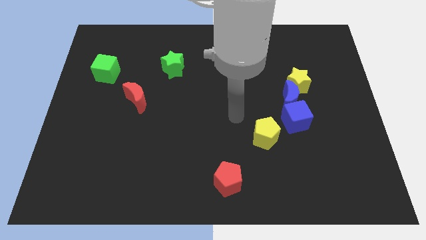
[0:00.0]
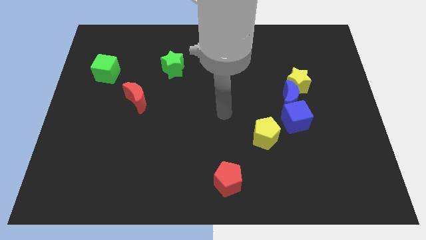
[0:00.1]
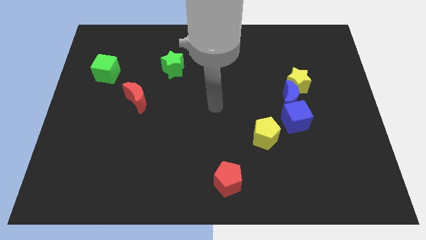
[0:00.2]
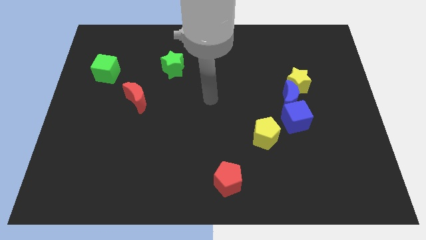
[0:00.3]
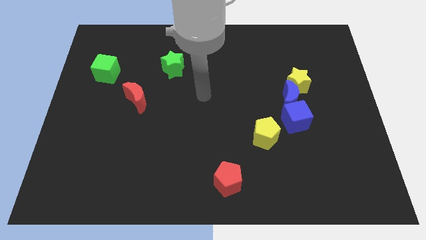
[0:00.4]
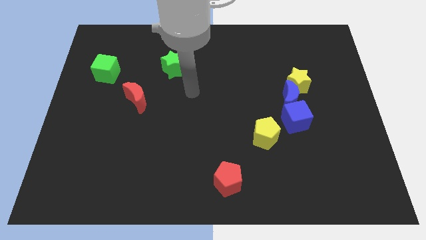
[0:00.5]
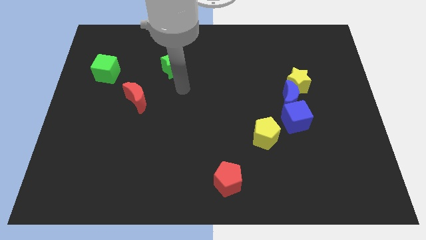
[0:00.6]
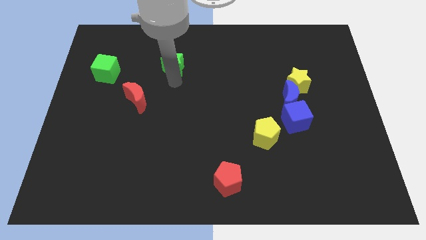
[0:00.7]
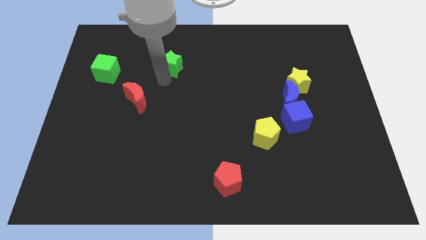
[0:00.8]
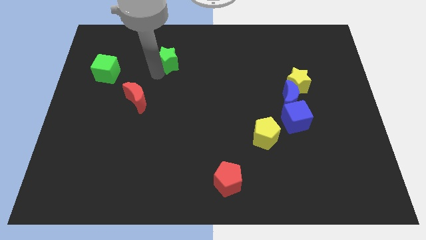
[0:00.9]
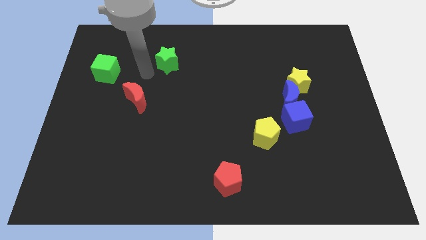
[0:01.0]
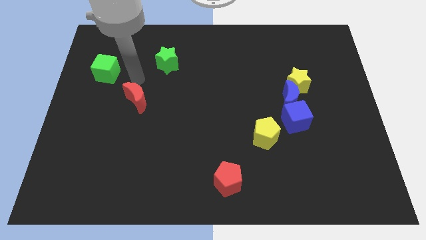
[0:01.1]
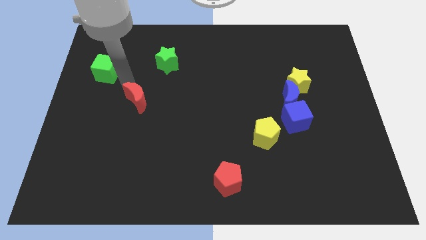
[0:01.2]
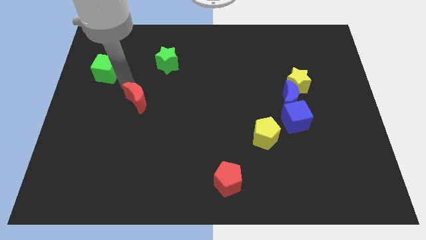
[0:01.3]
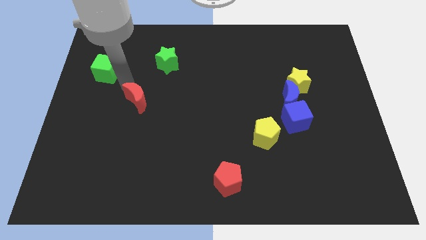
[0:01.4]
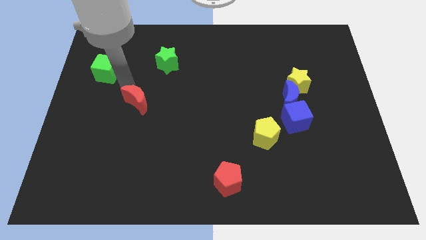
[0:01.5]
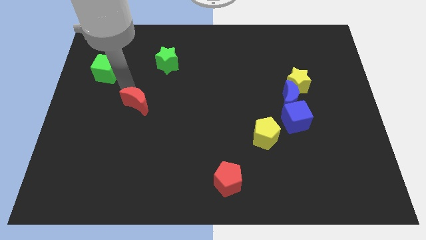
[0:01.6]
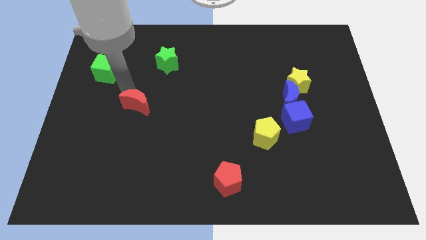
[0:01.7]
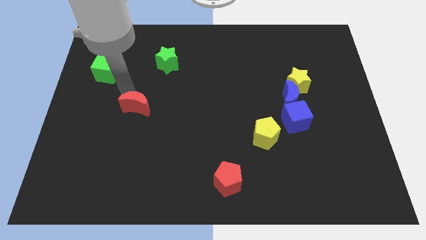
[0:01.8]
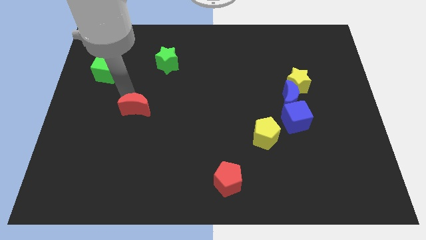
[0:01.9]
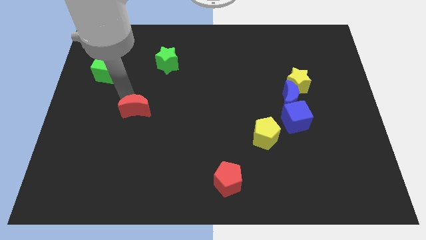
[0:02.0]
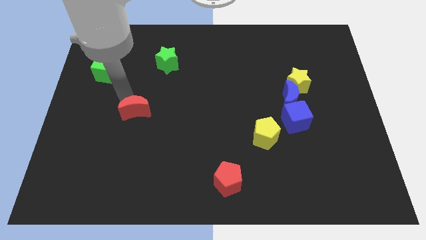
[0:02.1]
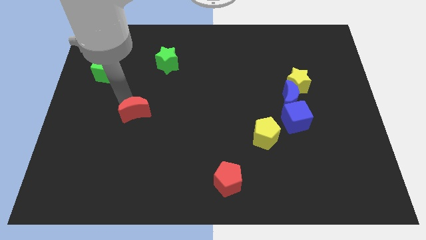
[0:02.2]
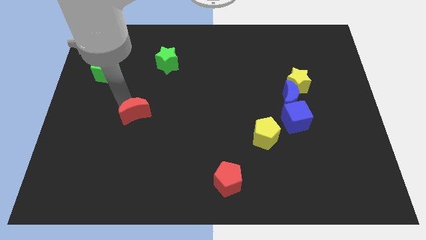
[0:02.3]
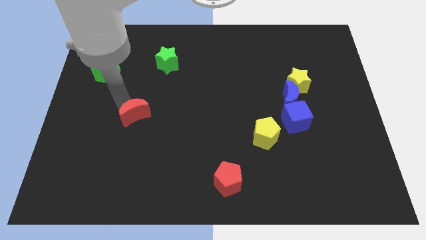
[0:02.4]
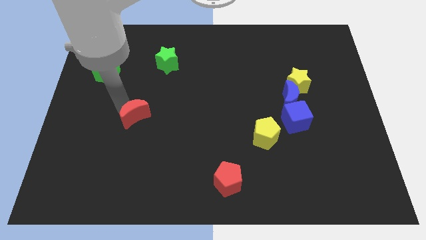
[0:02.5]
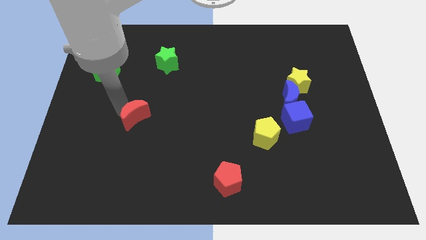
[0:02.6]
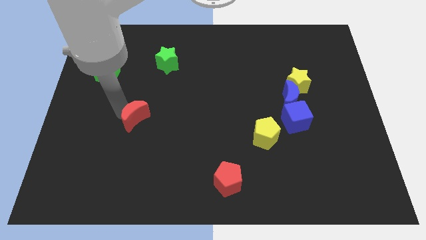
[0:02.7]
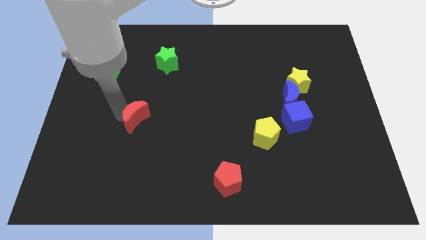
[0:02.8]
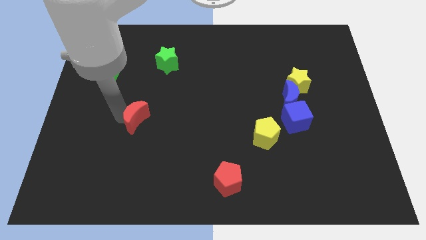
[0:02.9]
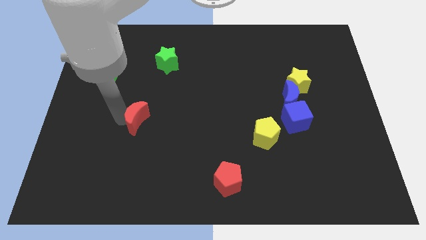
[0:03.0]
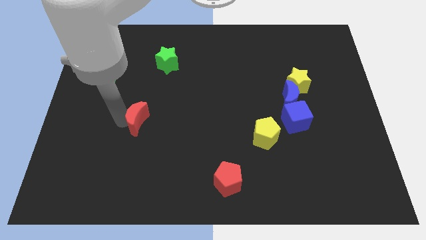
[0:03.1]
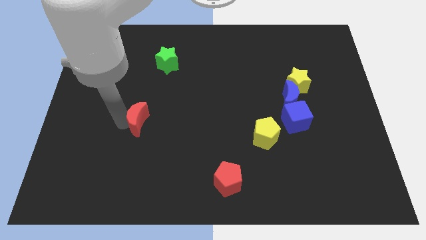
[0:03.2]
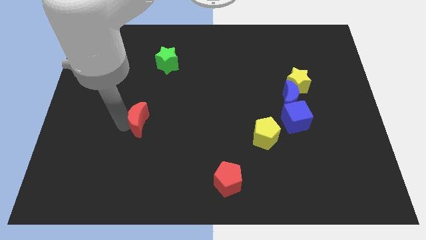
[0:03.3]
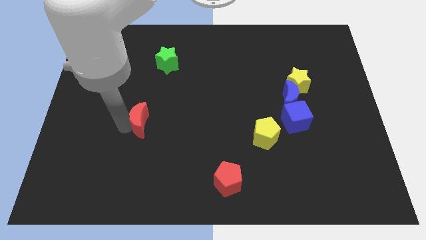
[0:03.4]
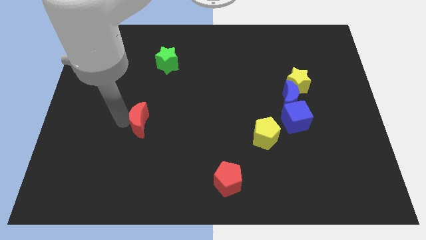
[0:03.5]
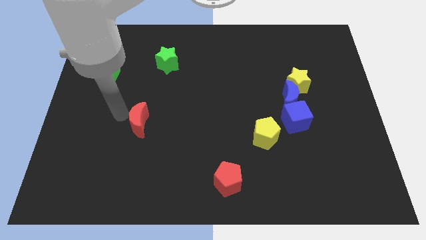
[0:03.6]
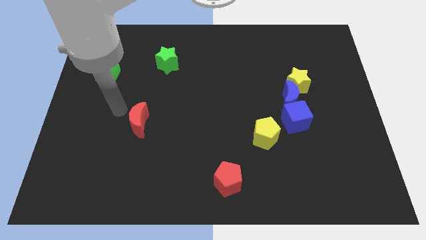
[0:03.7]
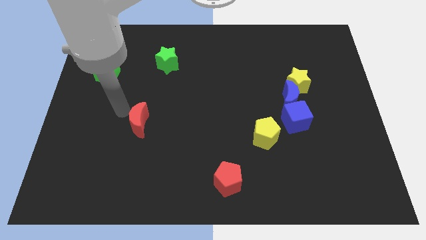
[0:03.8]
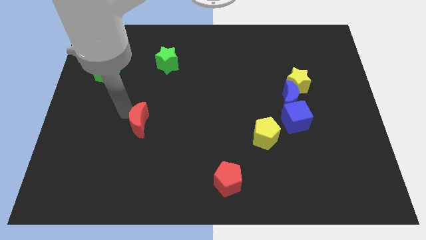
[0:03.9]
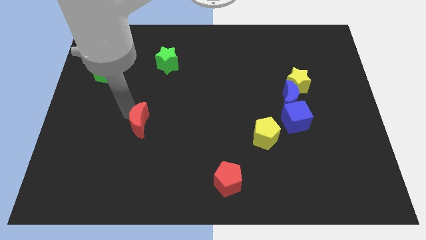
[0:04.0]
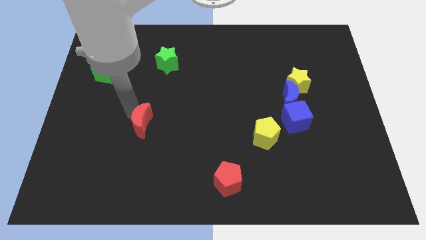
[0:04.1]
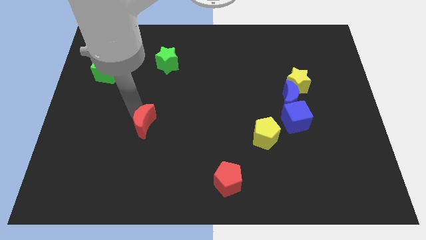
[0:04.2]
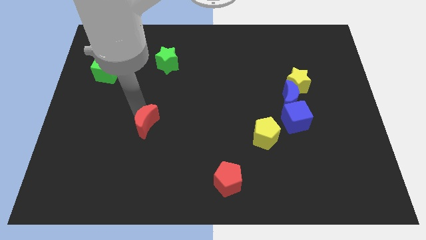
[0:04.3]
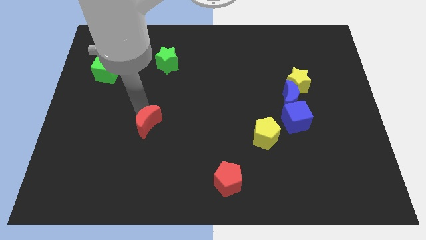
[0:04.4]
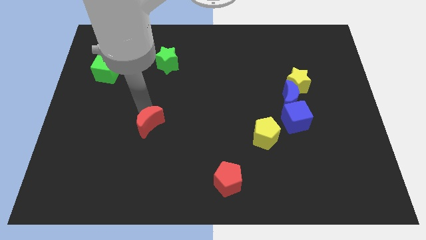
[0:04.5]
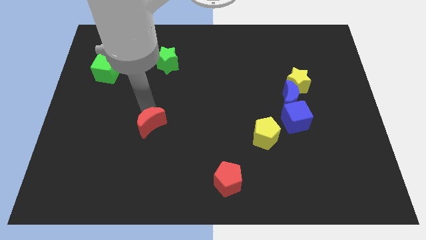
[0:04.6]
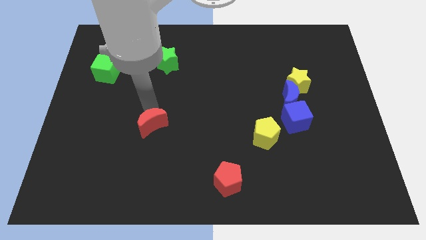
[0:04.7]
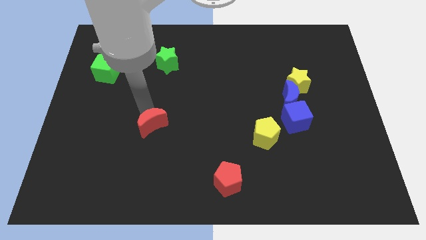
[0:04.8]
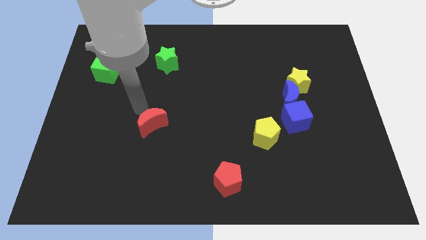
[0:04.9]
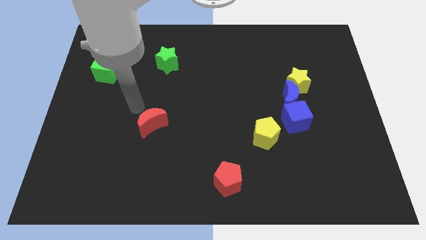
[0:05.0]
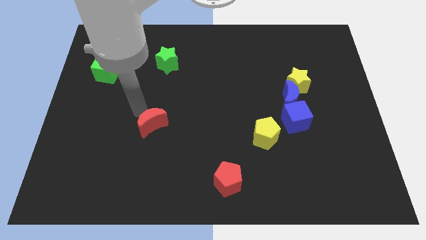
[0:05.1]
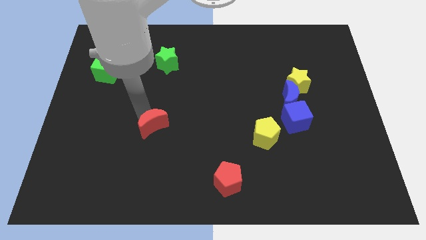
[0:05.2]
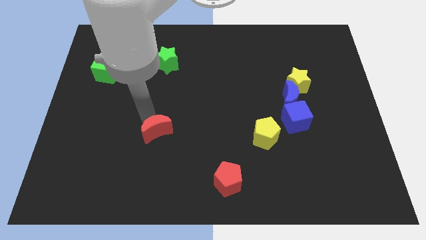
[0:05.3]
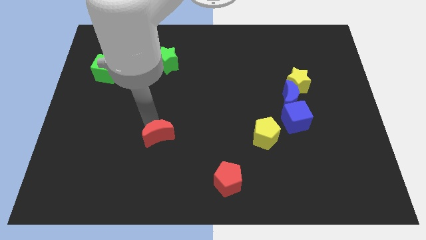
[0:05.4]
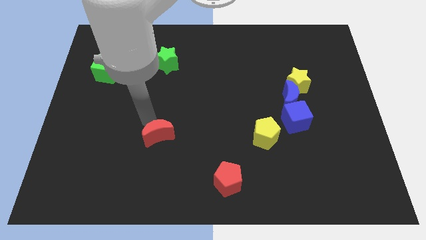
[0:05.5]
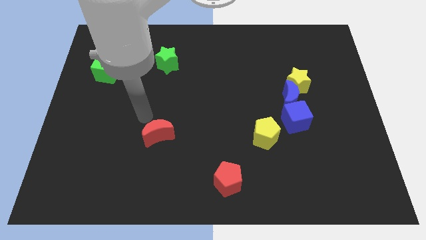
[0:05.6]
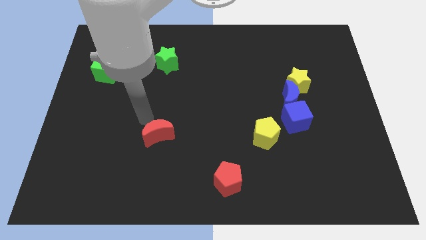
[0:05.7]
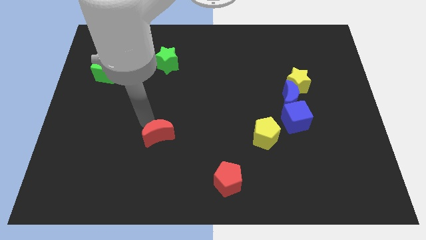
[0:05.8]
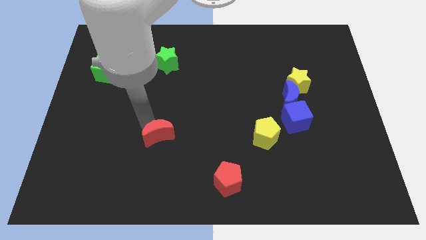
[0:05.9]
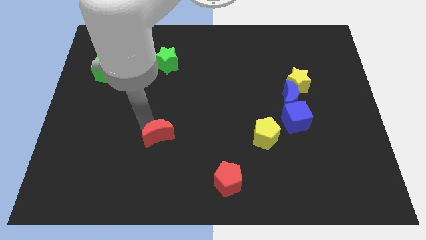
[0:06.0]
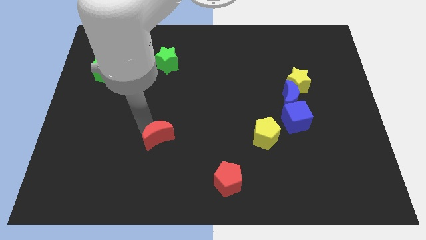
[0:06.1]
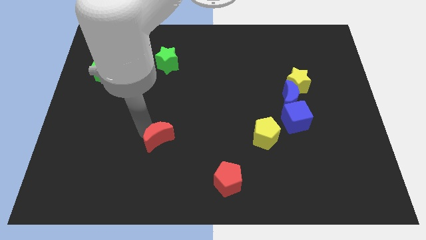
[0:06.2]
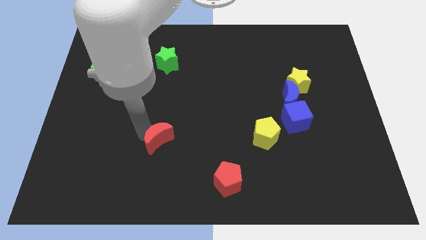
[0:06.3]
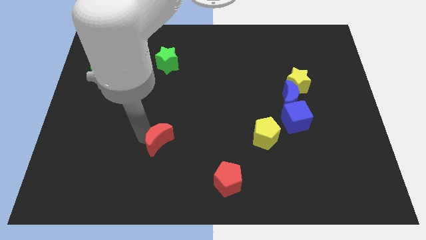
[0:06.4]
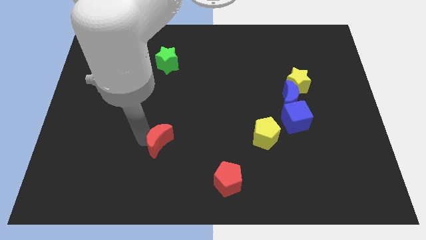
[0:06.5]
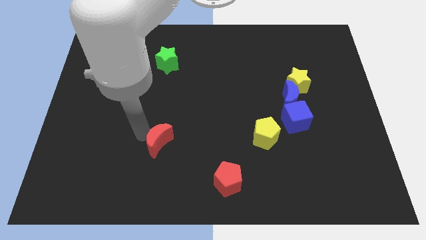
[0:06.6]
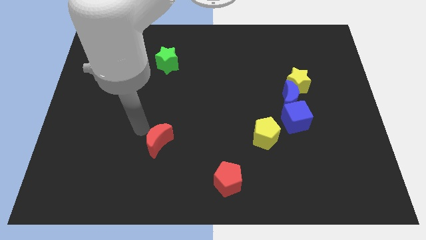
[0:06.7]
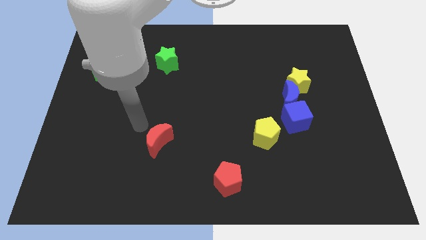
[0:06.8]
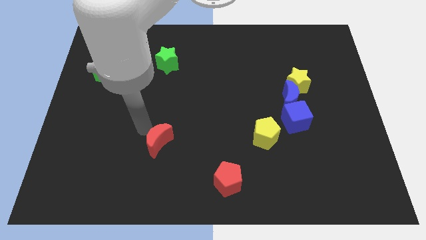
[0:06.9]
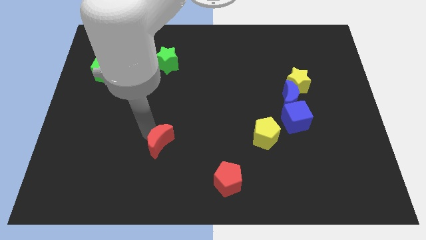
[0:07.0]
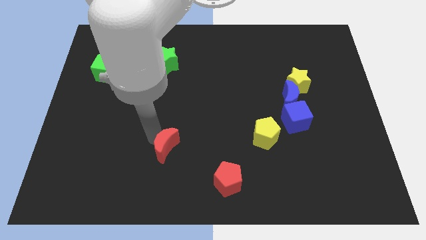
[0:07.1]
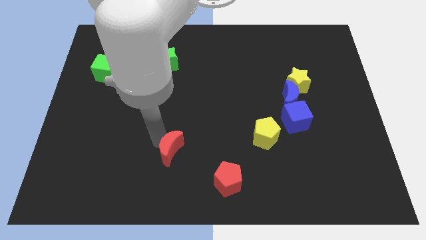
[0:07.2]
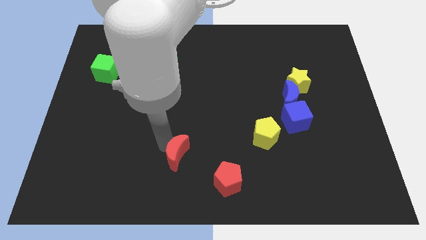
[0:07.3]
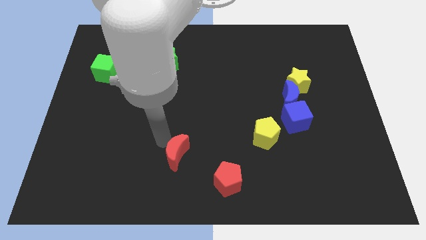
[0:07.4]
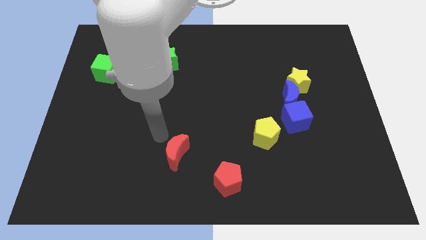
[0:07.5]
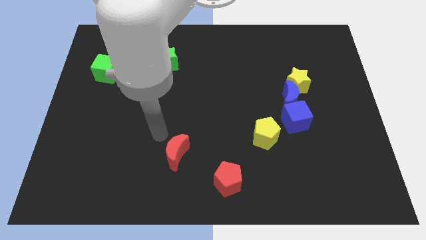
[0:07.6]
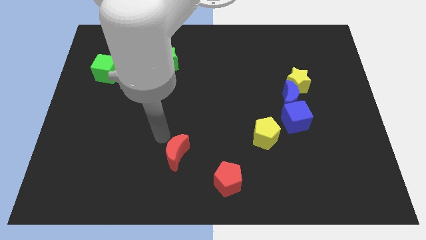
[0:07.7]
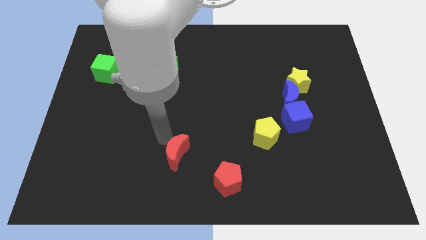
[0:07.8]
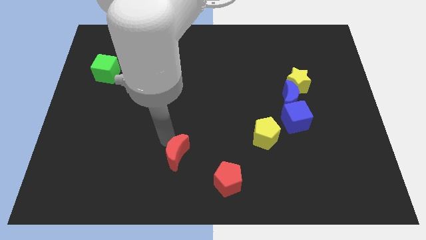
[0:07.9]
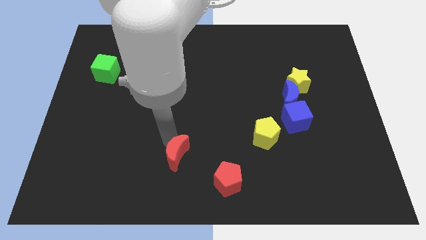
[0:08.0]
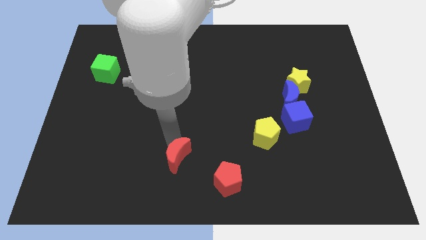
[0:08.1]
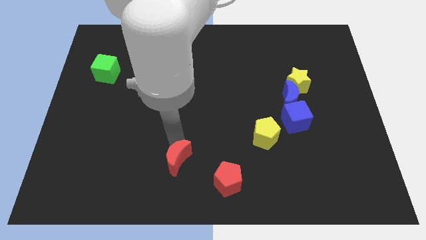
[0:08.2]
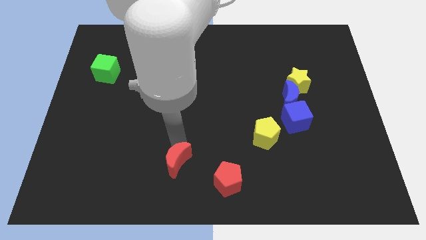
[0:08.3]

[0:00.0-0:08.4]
move the red moon to the bottom side
